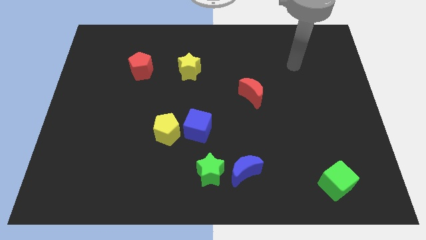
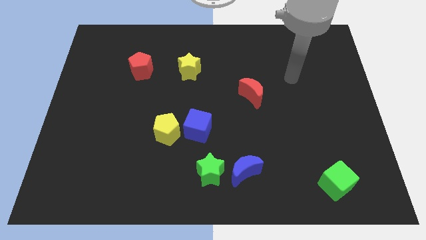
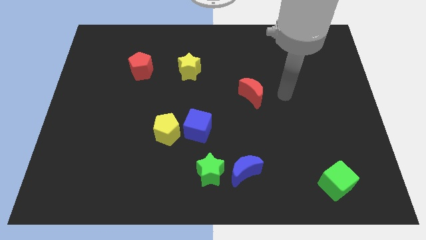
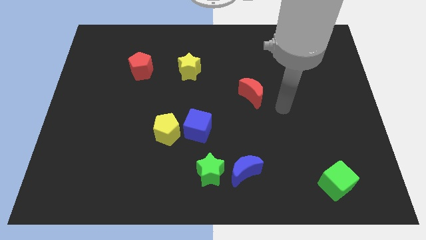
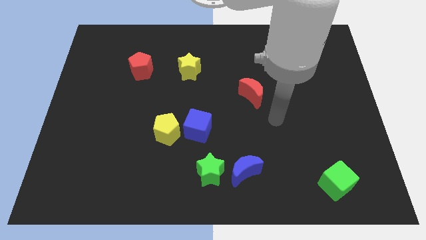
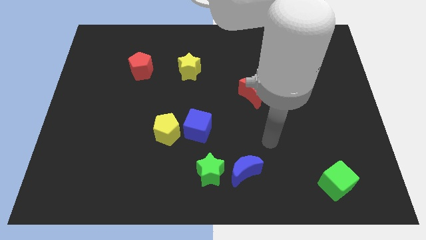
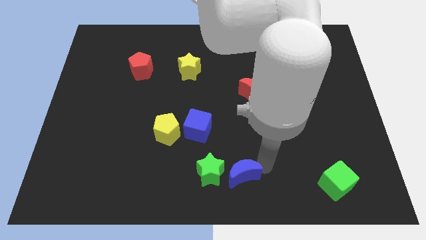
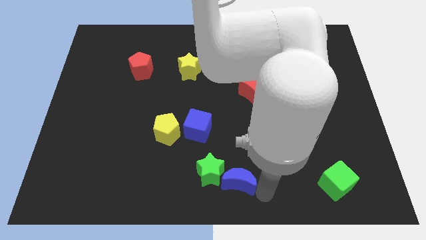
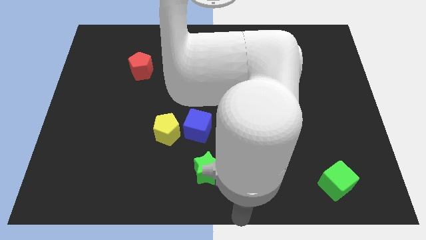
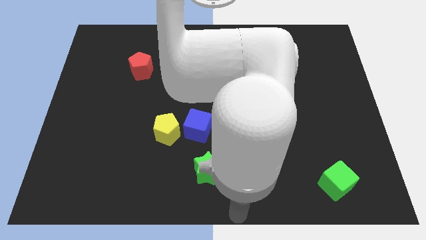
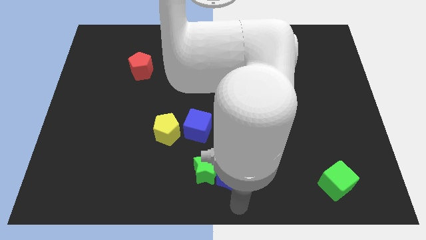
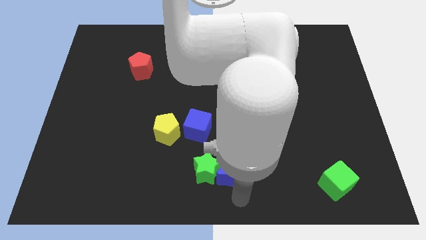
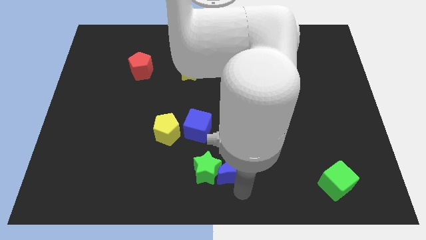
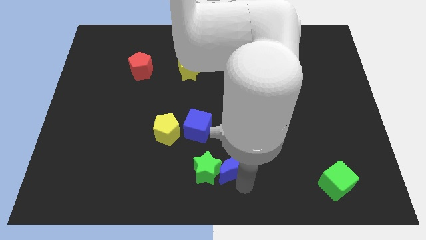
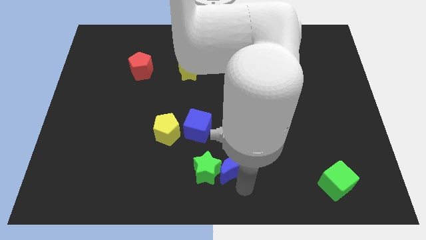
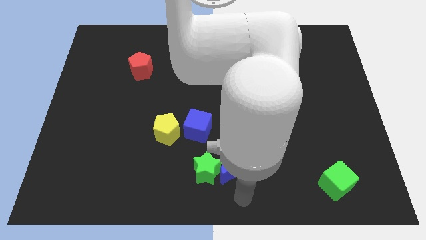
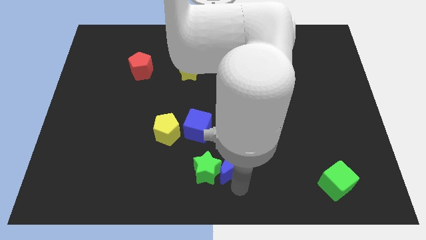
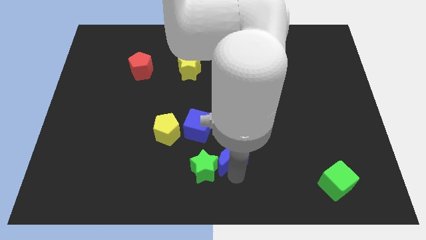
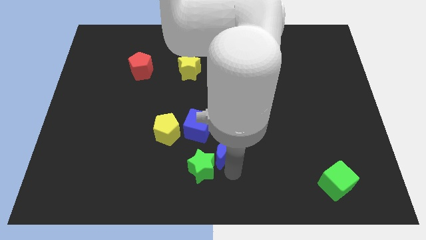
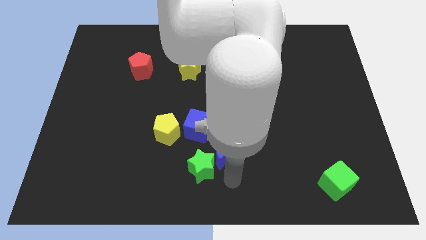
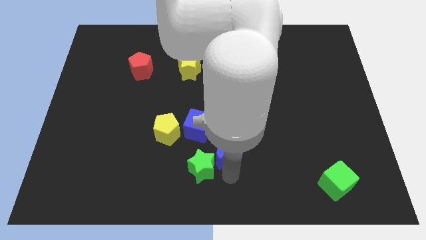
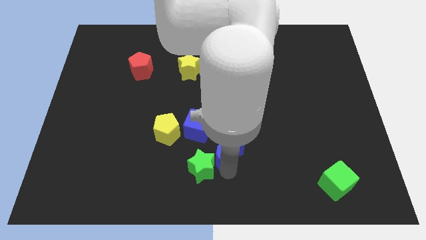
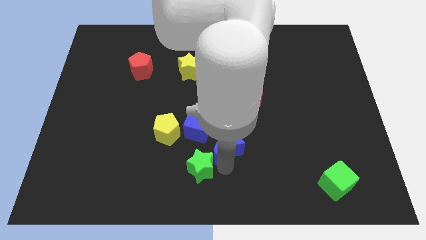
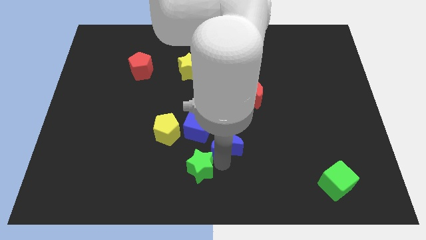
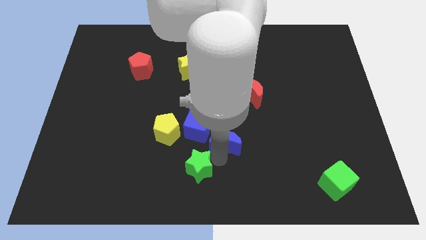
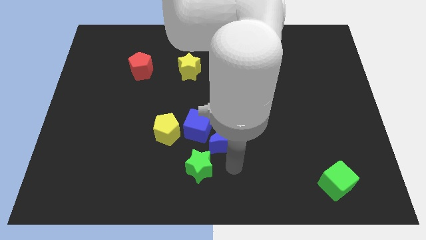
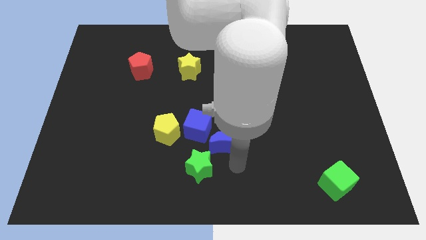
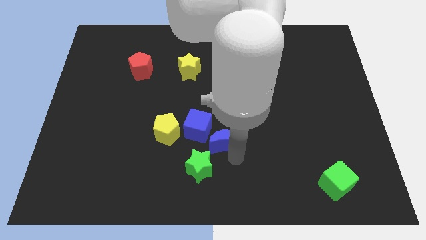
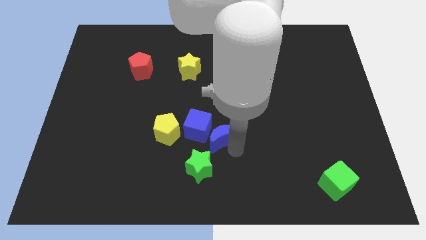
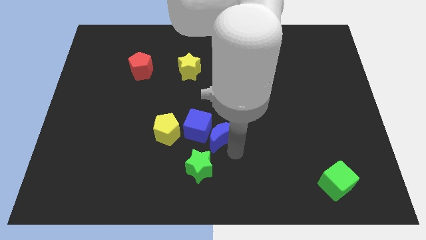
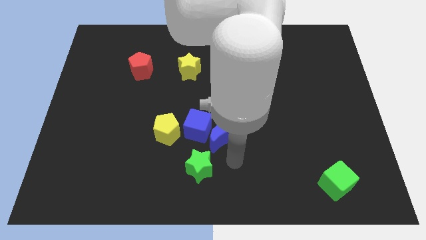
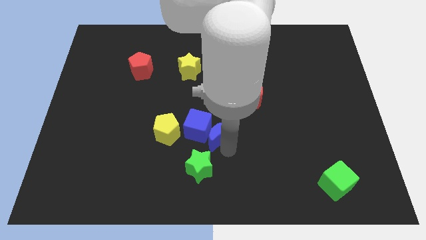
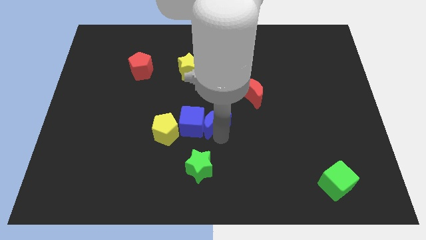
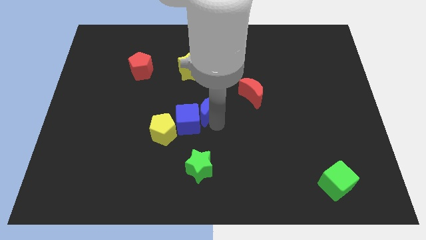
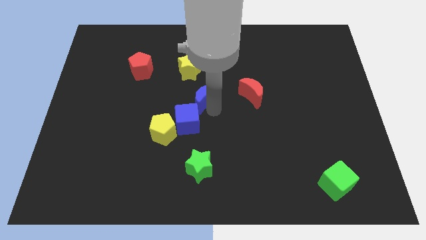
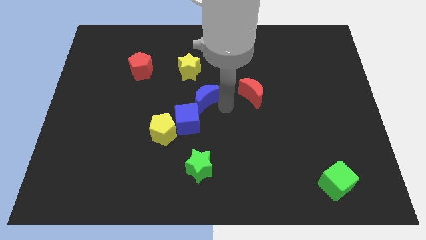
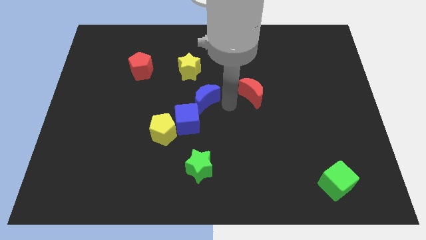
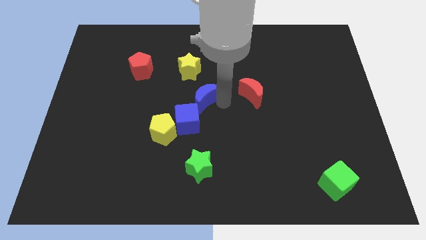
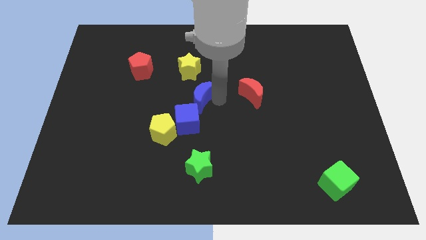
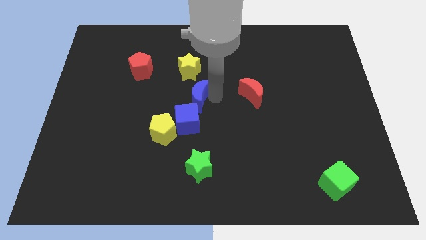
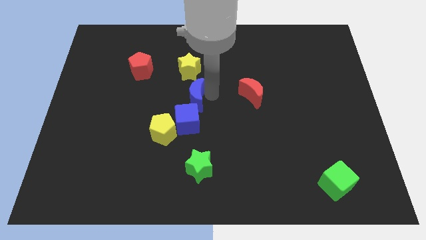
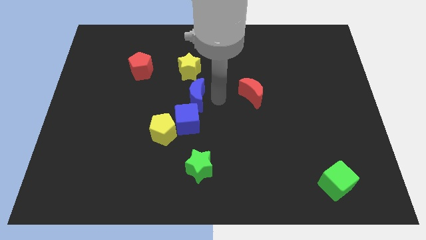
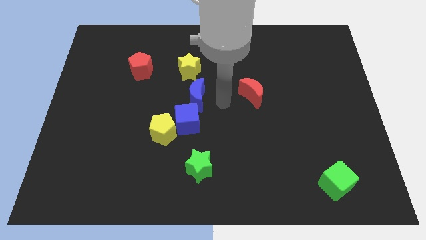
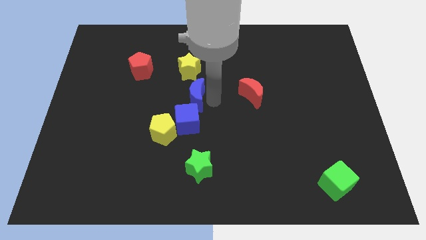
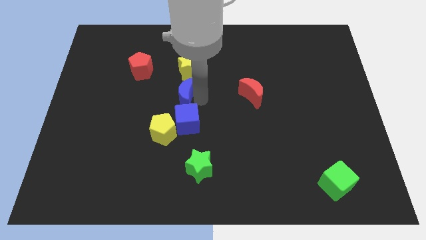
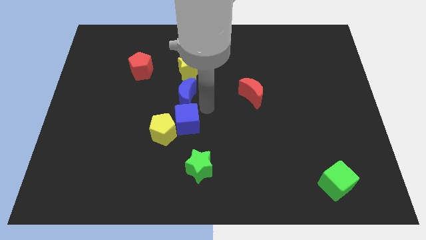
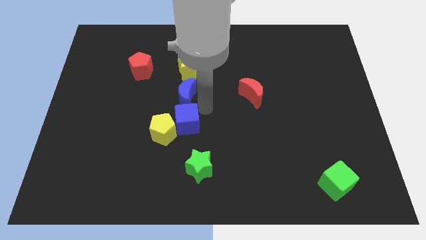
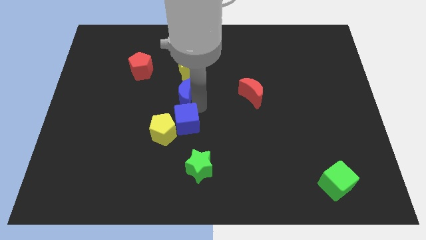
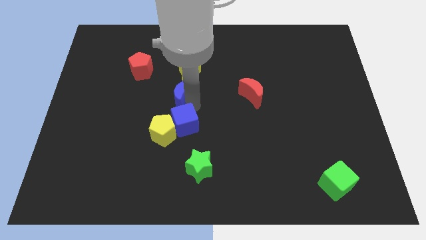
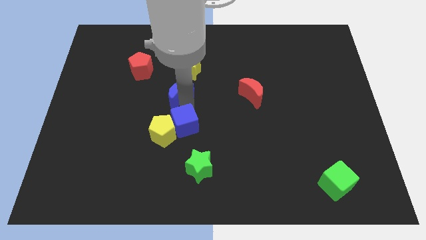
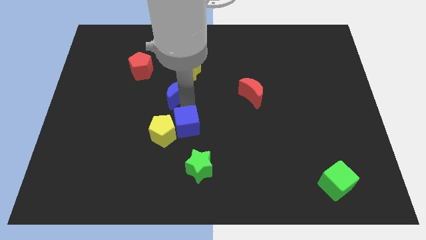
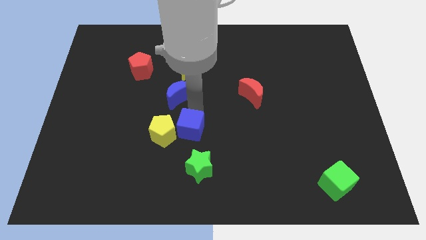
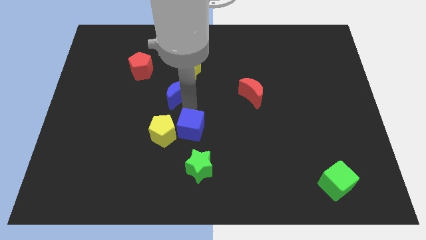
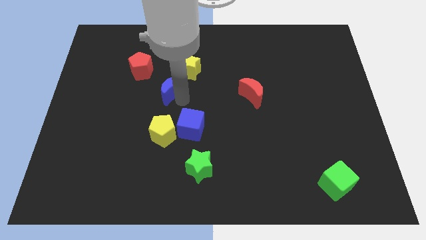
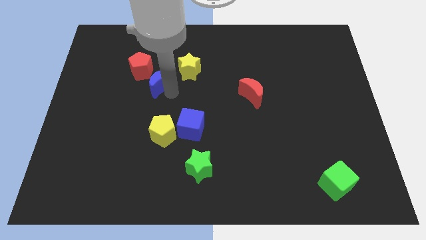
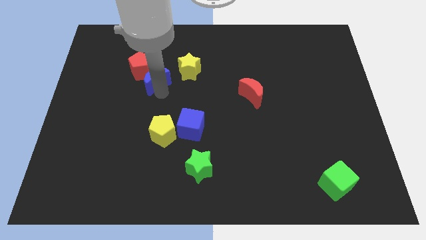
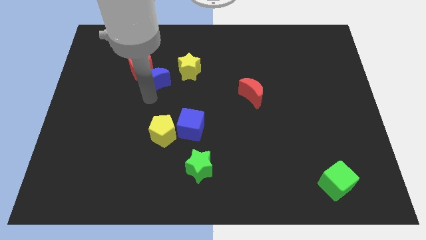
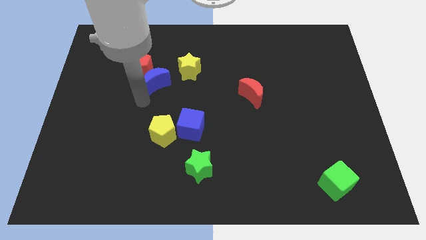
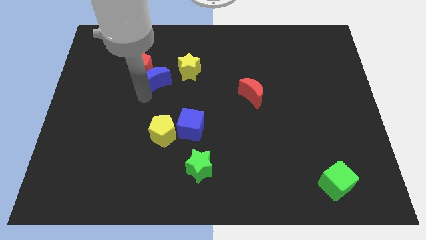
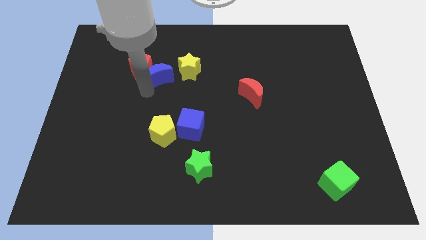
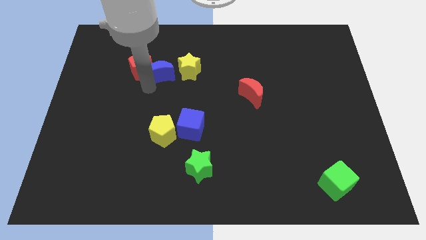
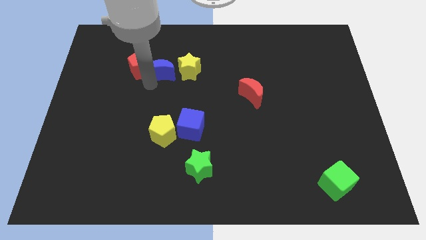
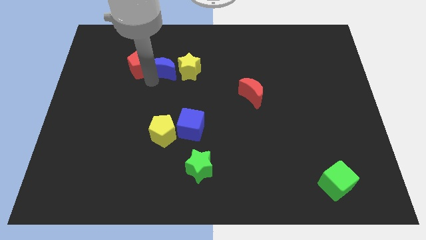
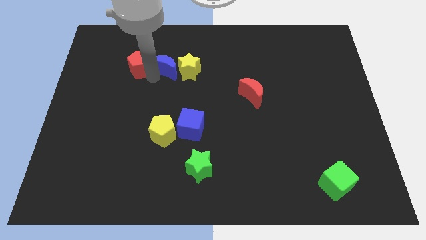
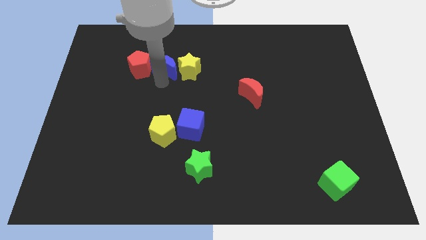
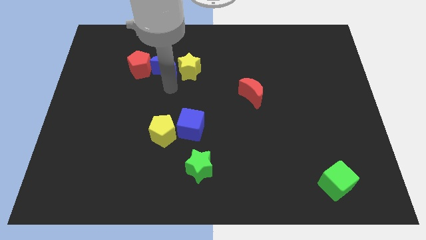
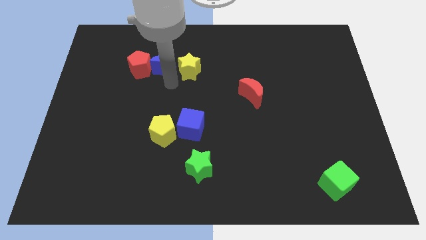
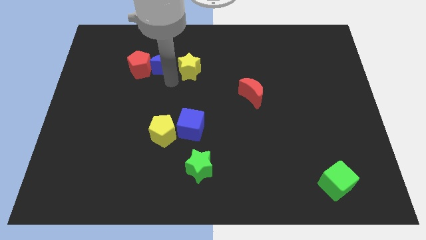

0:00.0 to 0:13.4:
move the blue moon to the top right side of the red pentagon

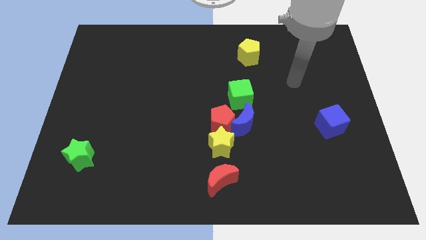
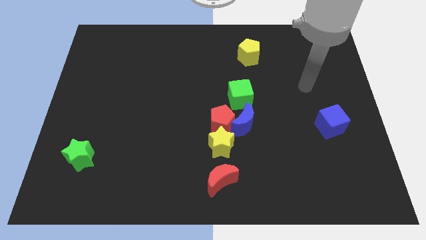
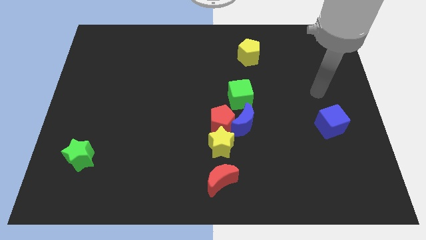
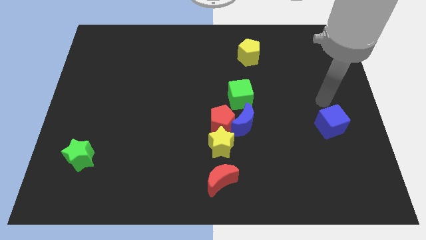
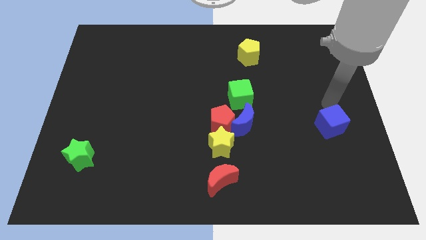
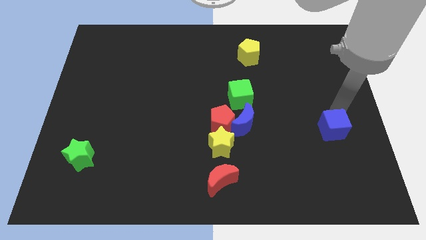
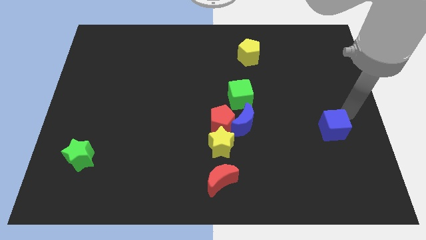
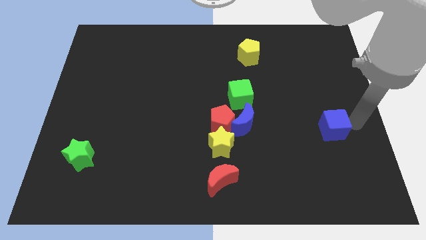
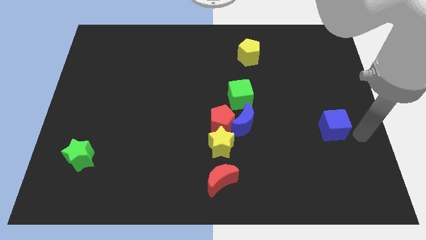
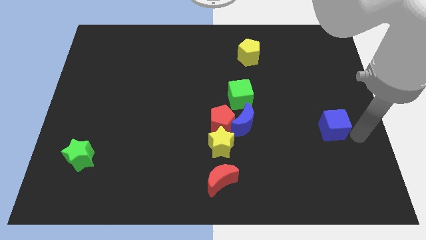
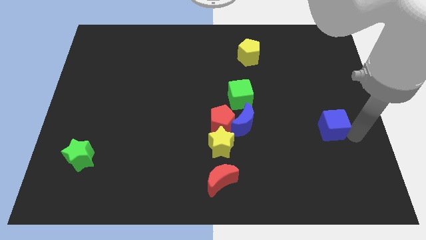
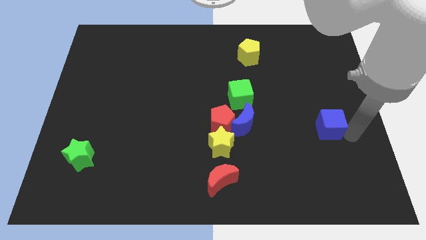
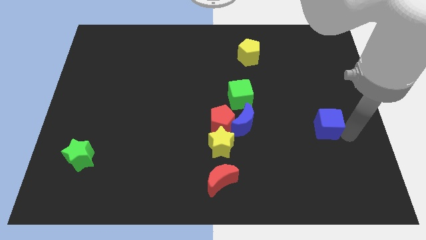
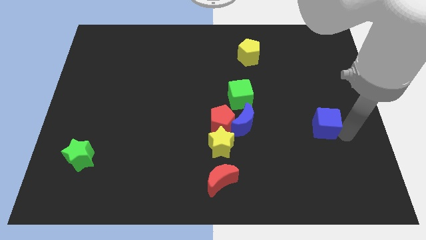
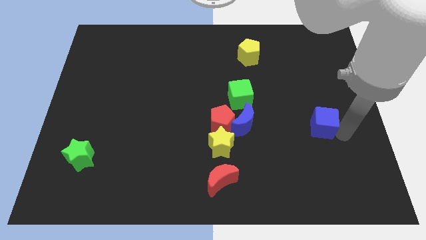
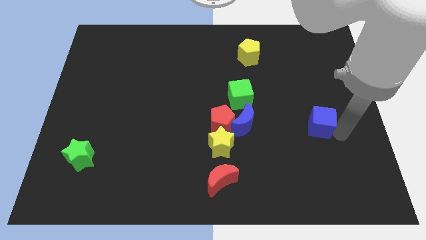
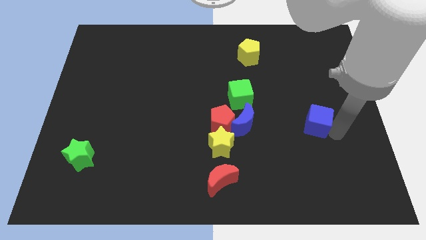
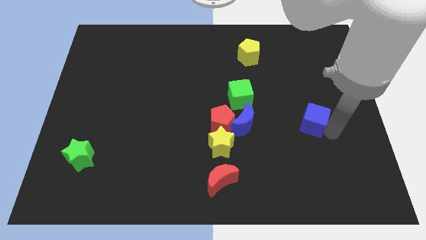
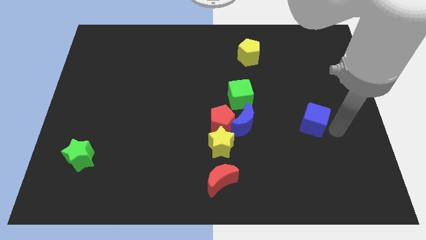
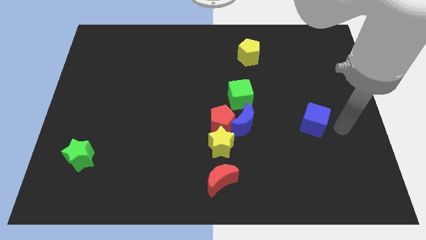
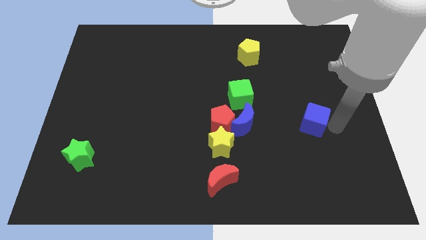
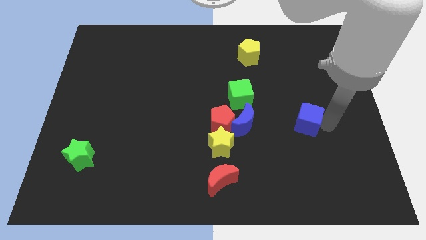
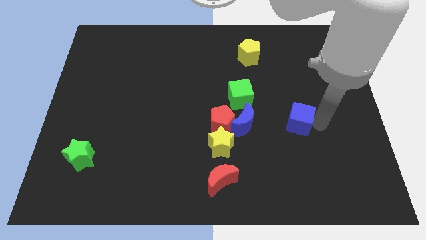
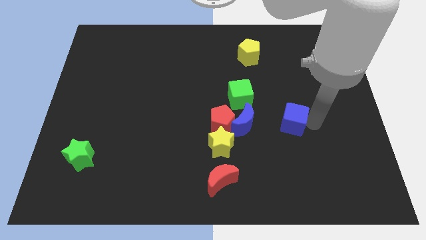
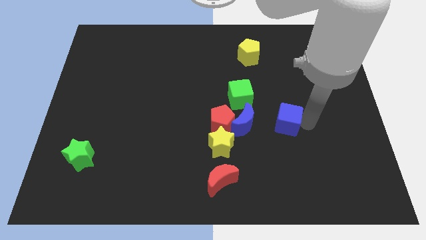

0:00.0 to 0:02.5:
push the blue cube diagonally down and to the right of the green cube
